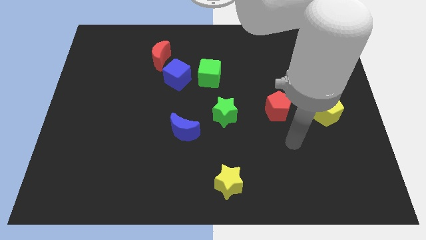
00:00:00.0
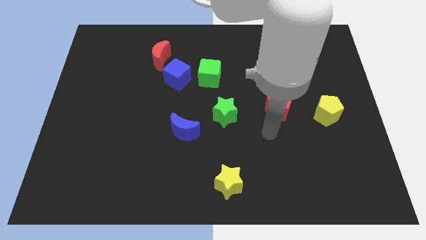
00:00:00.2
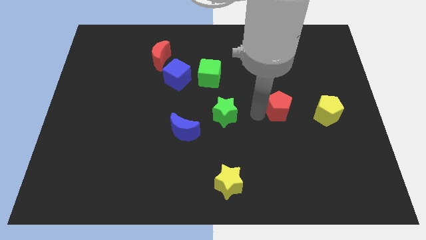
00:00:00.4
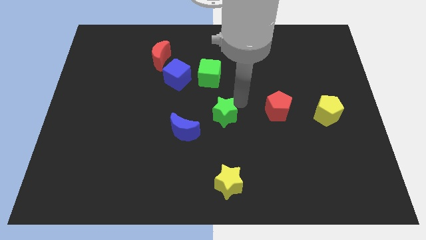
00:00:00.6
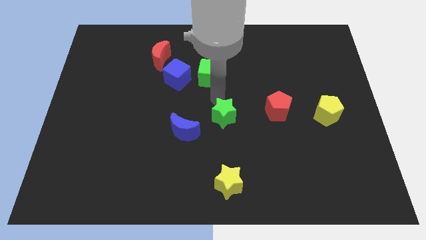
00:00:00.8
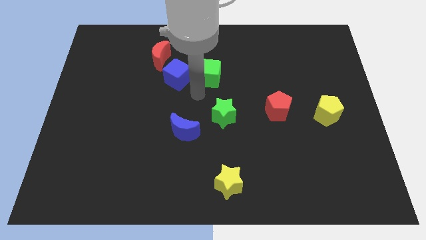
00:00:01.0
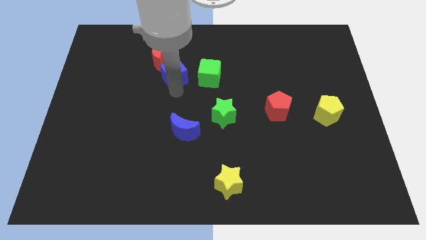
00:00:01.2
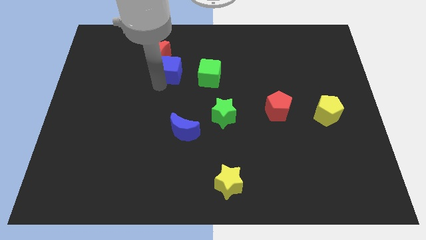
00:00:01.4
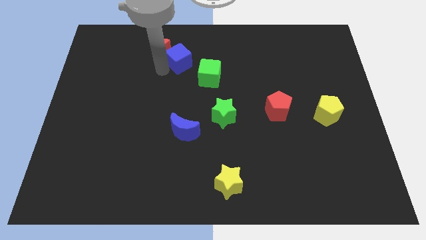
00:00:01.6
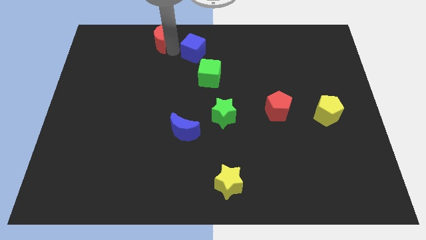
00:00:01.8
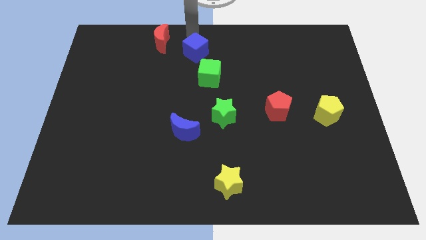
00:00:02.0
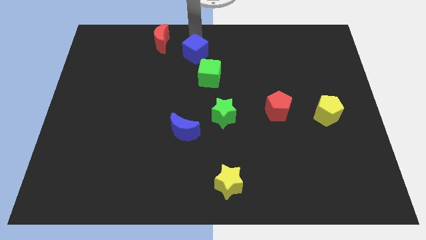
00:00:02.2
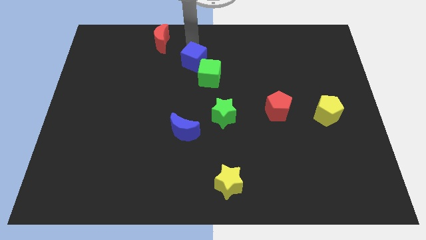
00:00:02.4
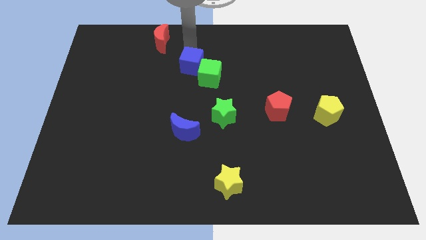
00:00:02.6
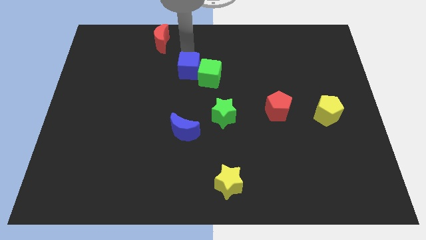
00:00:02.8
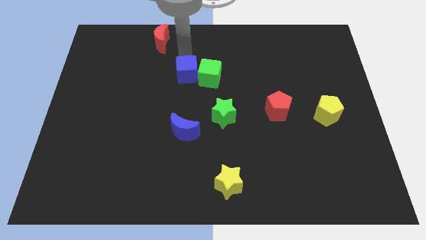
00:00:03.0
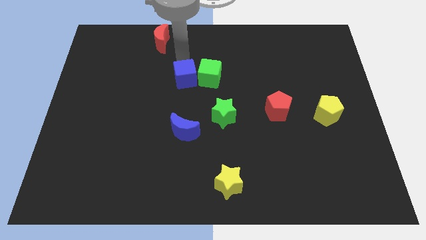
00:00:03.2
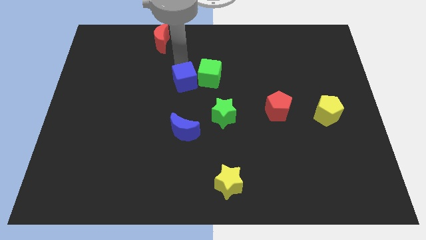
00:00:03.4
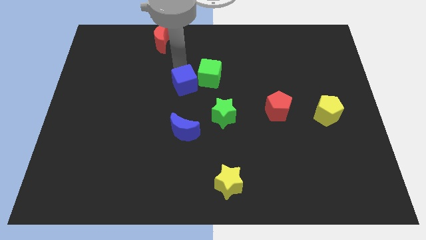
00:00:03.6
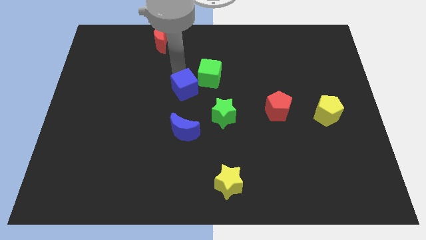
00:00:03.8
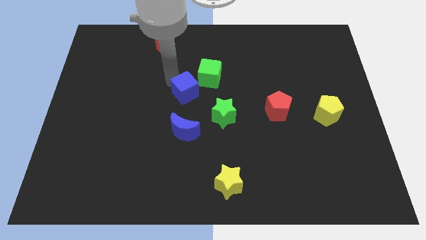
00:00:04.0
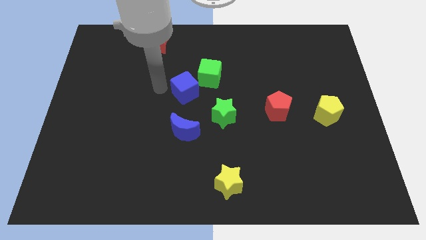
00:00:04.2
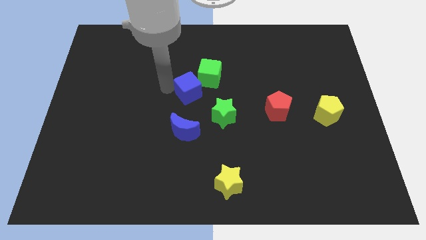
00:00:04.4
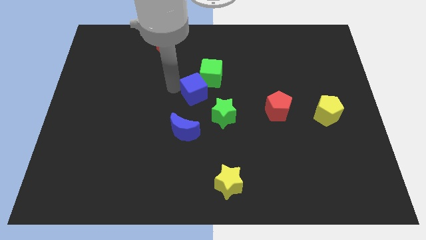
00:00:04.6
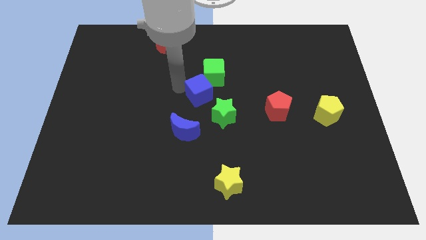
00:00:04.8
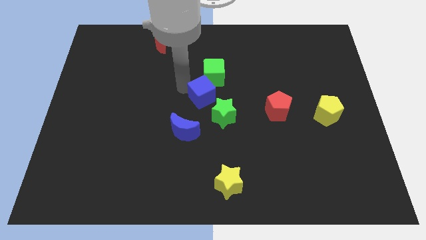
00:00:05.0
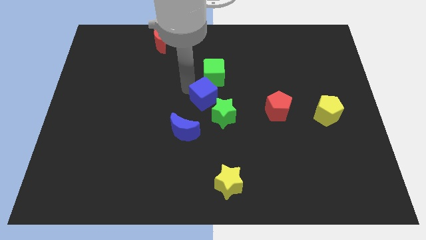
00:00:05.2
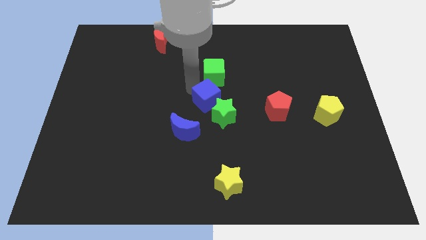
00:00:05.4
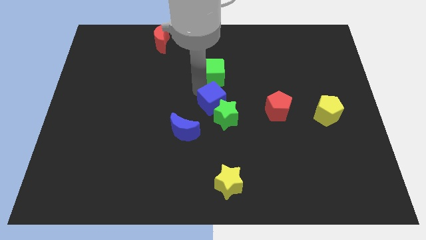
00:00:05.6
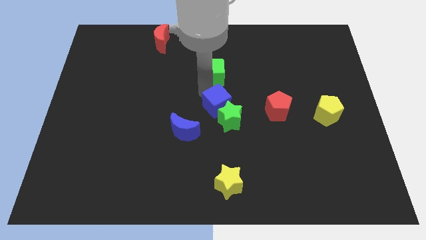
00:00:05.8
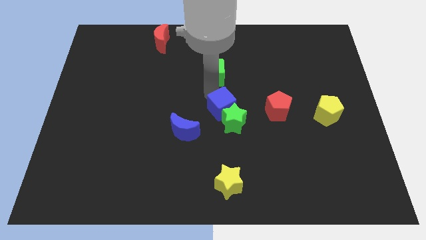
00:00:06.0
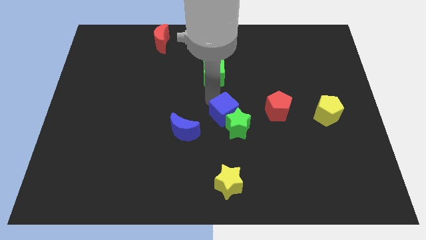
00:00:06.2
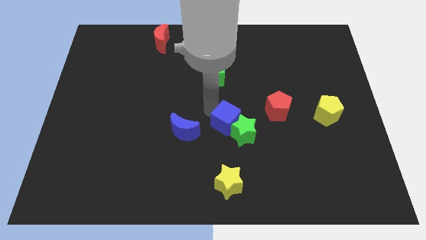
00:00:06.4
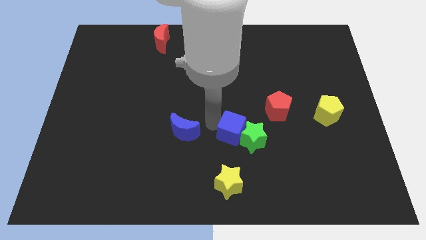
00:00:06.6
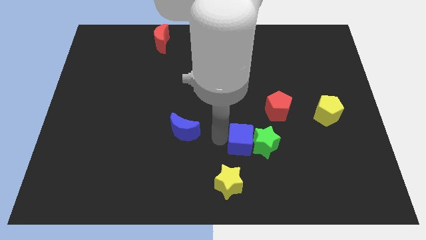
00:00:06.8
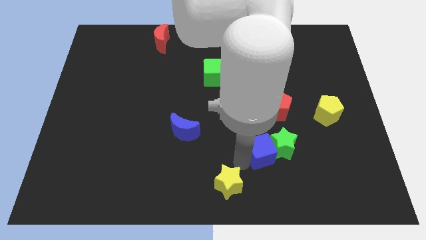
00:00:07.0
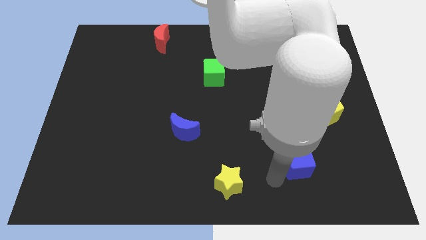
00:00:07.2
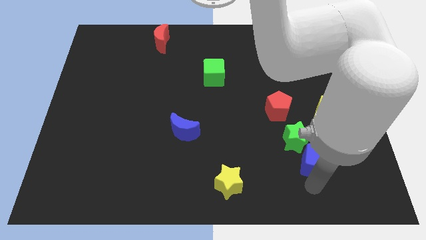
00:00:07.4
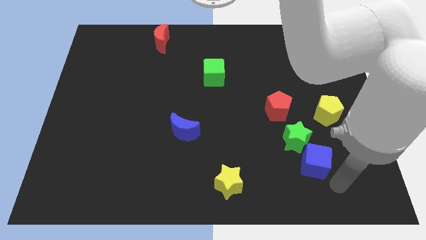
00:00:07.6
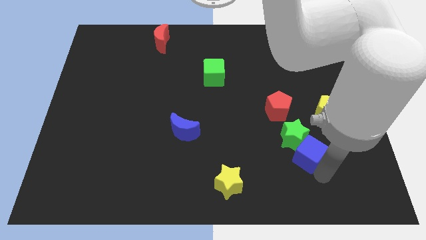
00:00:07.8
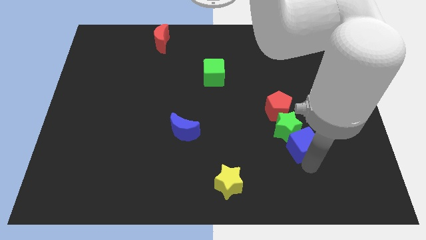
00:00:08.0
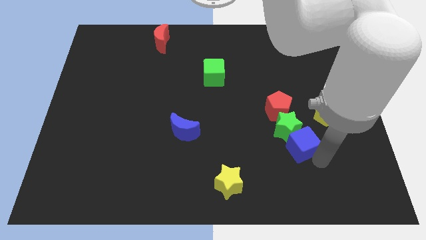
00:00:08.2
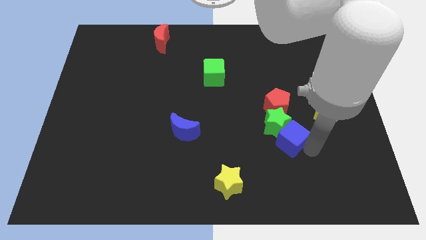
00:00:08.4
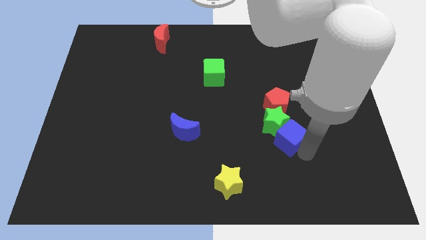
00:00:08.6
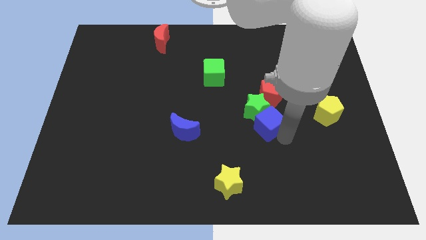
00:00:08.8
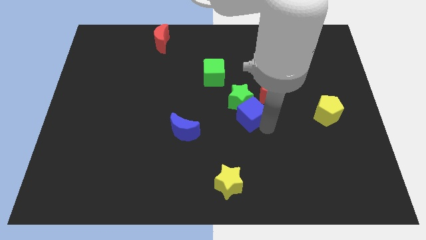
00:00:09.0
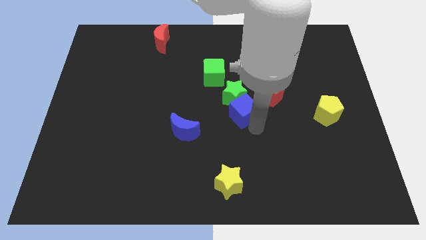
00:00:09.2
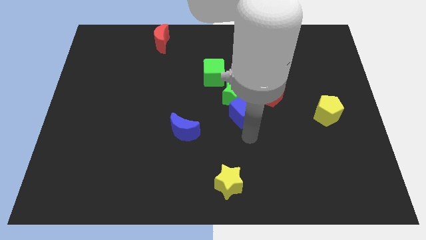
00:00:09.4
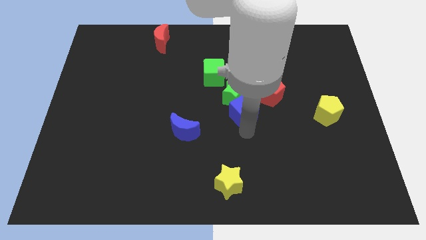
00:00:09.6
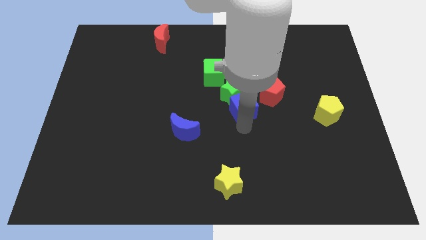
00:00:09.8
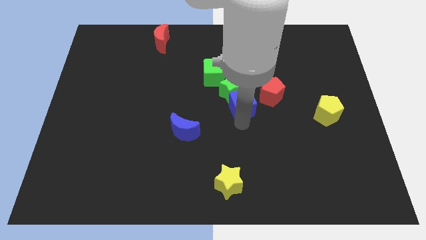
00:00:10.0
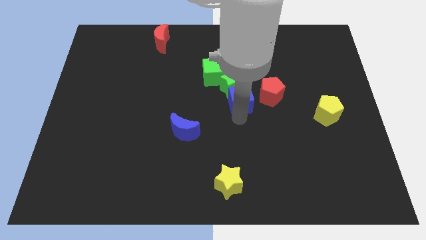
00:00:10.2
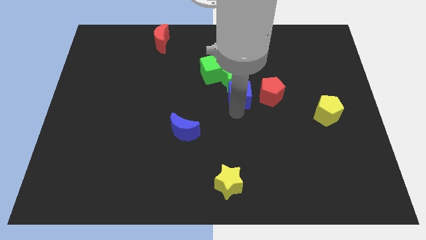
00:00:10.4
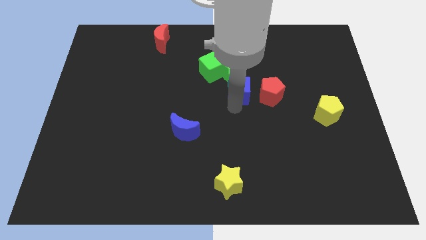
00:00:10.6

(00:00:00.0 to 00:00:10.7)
put the blue cube diagonally up and to the left of the red pentagon
